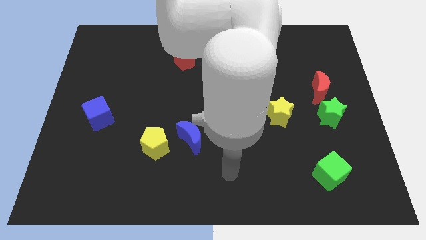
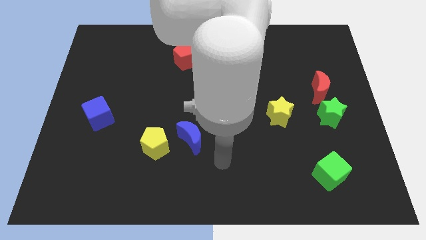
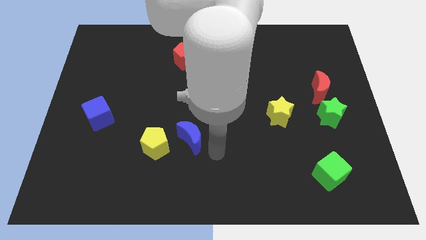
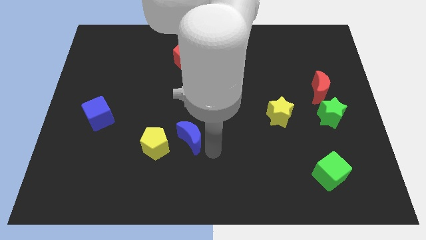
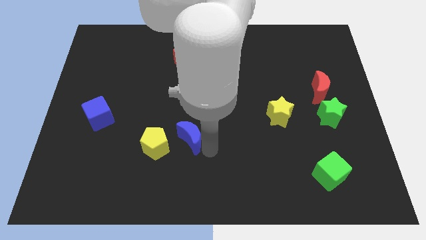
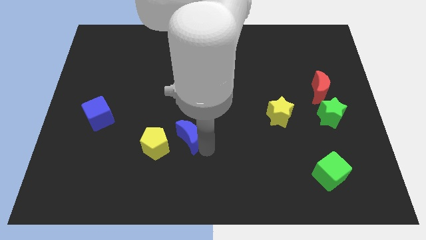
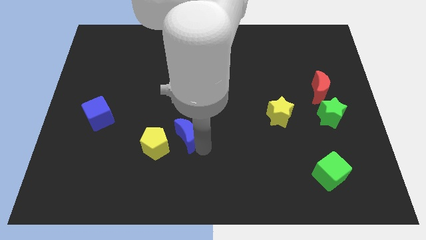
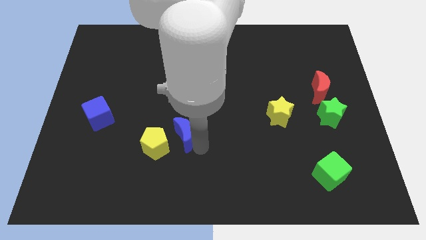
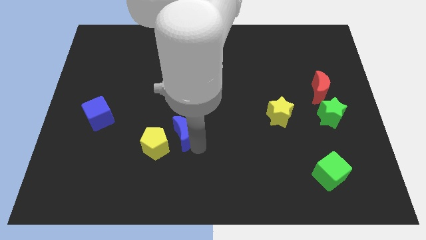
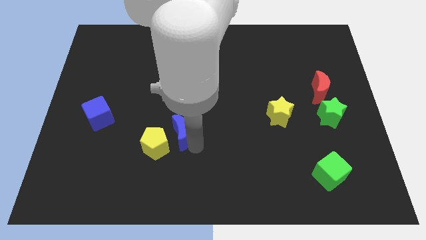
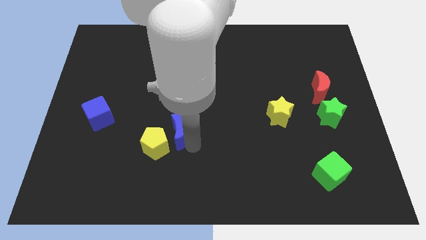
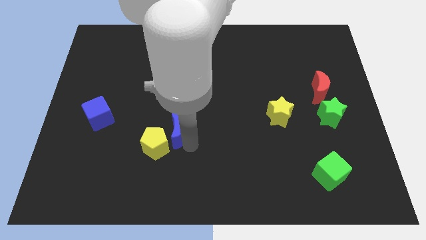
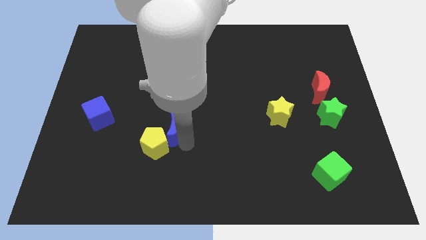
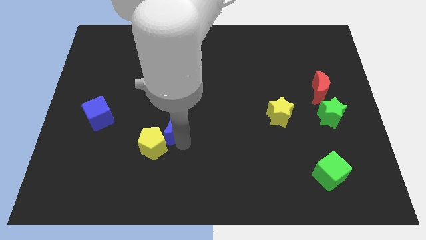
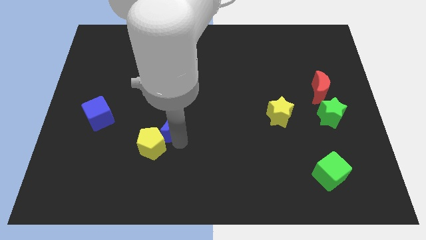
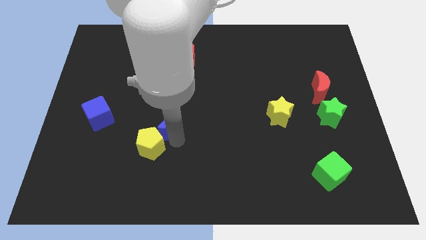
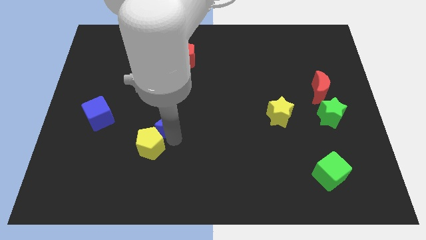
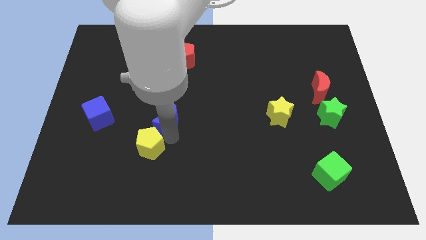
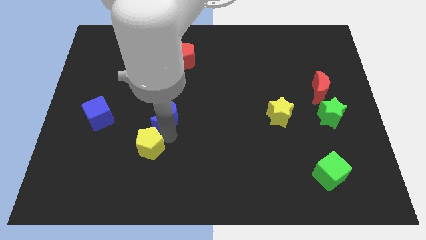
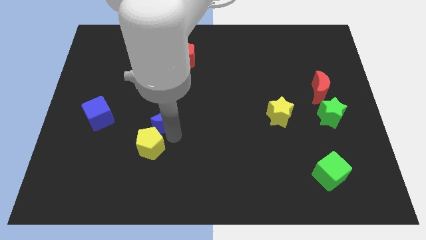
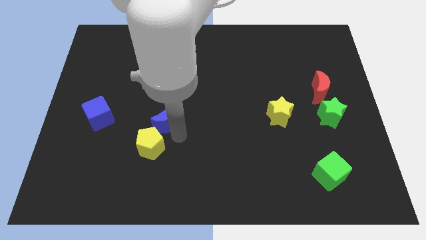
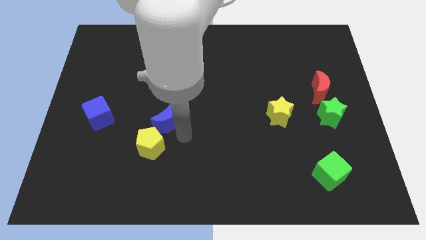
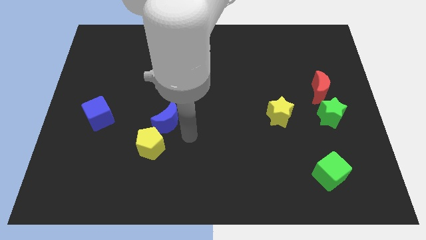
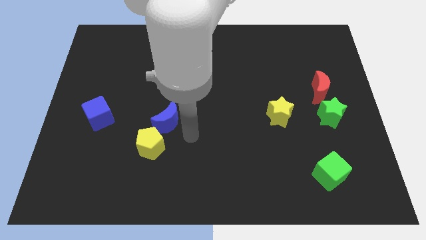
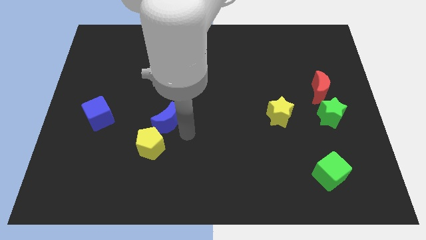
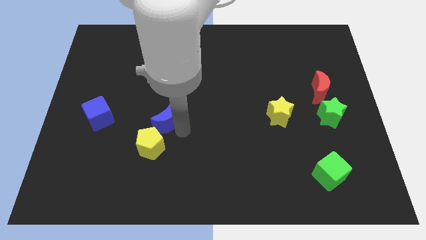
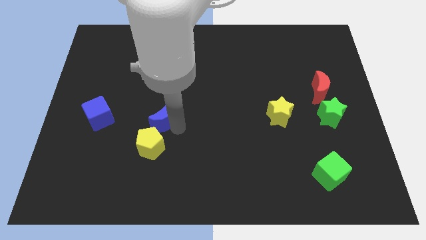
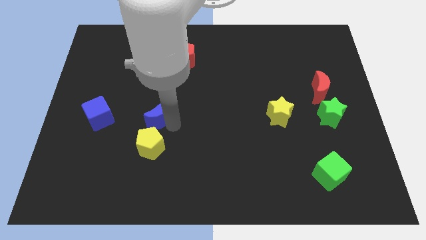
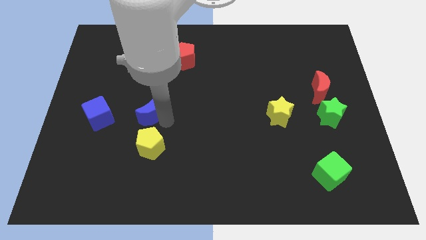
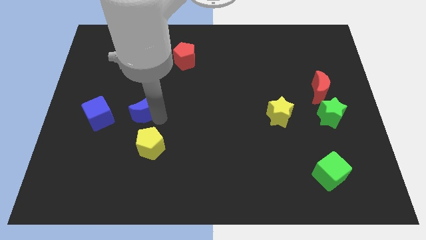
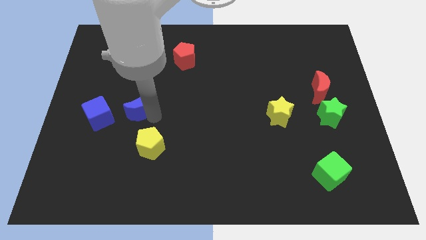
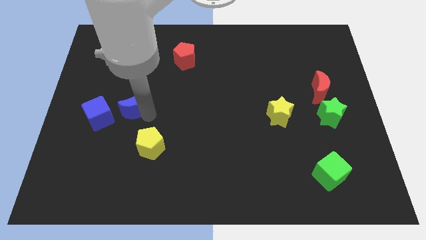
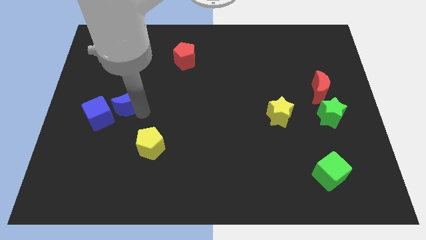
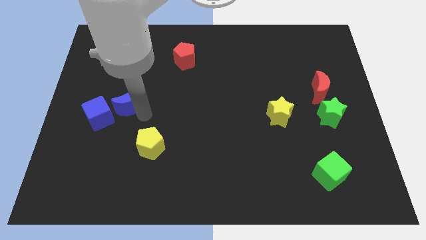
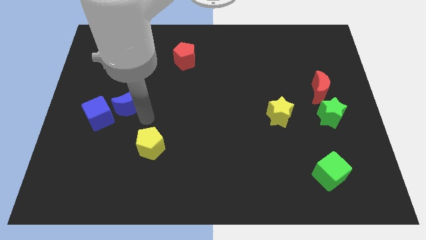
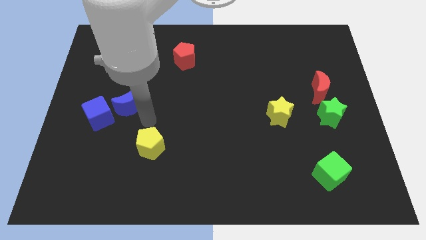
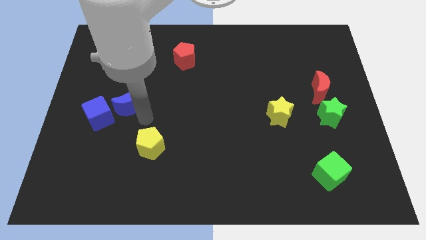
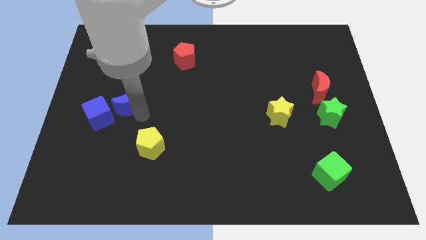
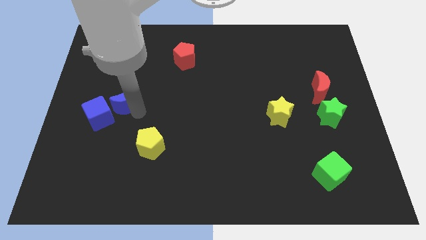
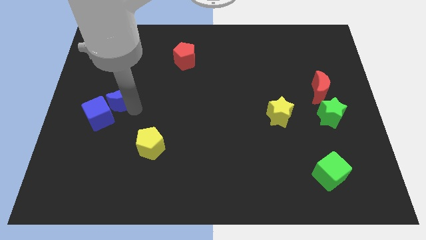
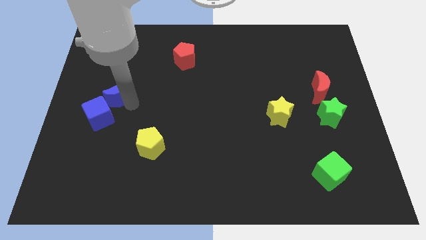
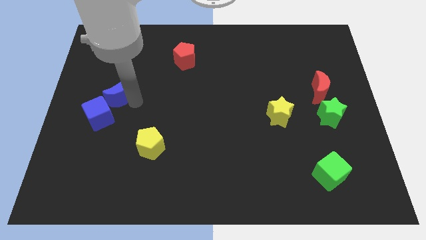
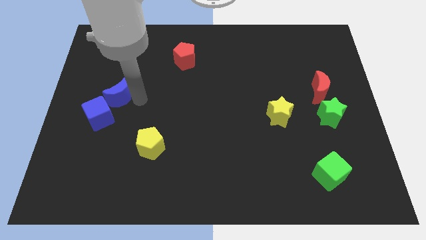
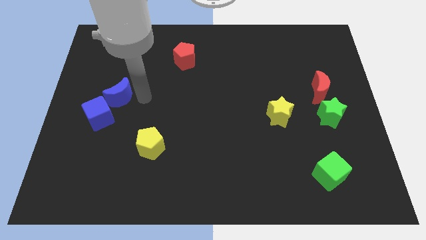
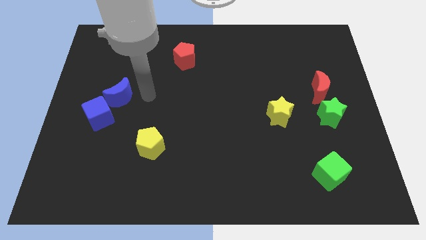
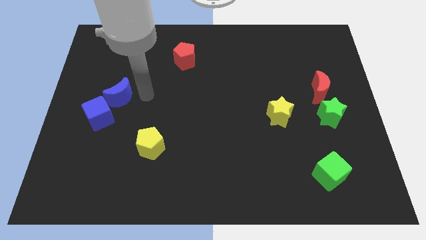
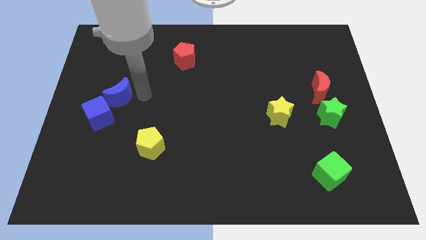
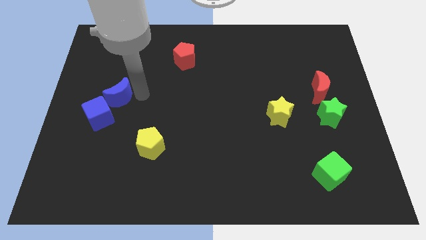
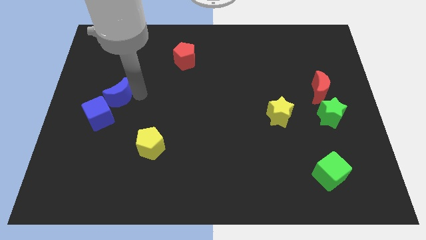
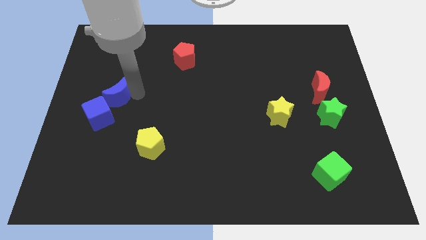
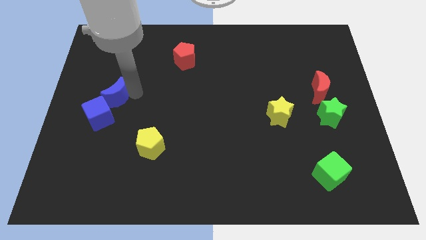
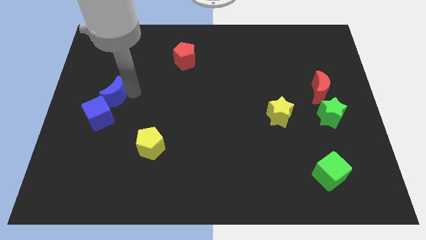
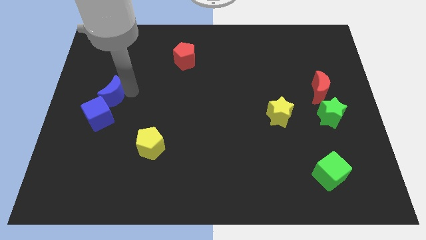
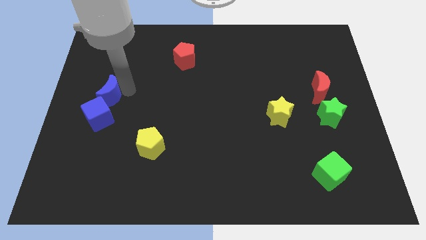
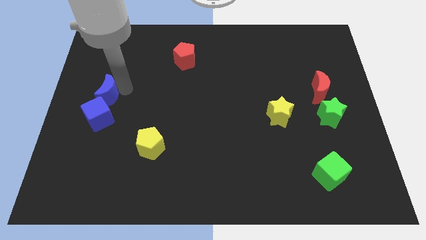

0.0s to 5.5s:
push the blue moon to the left side
